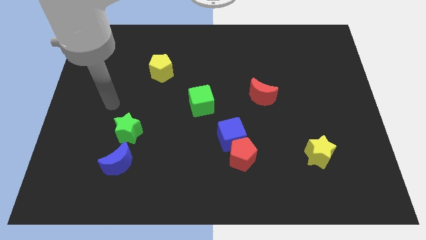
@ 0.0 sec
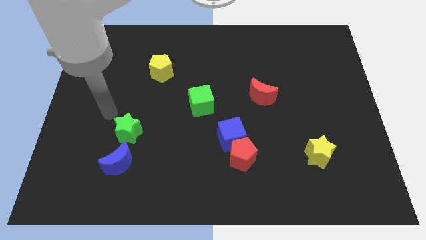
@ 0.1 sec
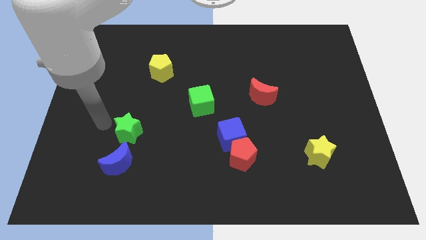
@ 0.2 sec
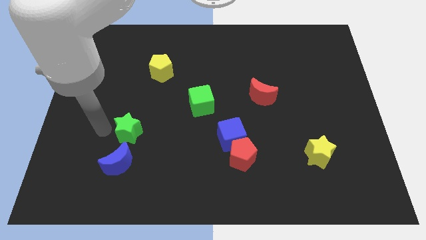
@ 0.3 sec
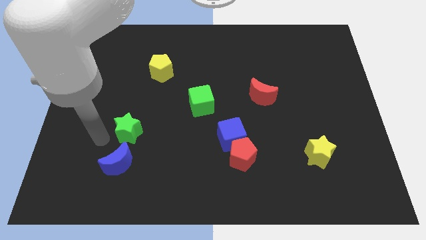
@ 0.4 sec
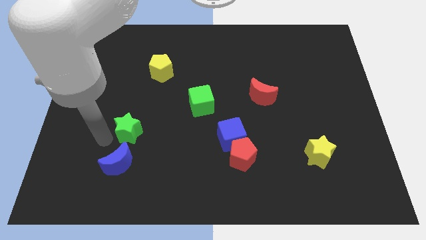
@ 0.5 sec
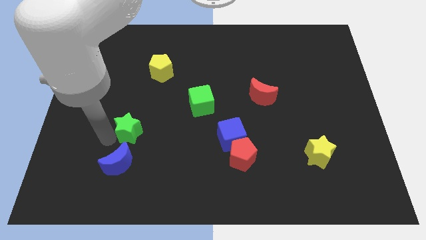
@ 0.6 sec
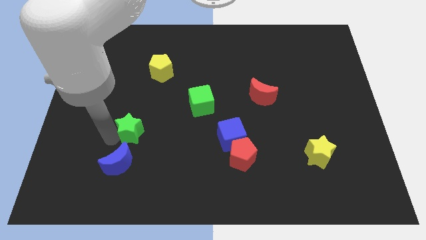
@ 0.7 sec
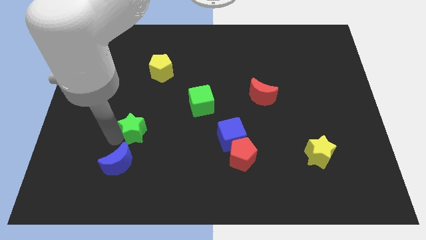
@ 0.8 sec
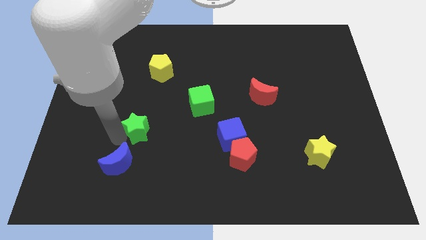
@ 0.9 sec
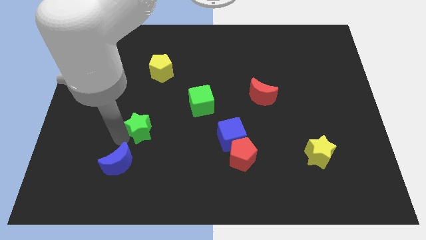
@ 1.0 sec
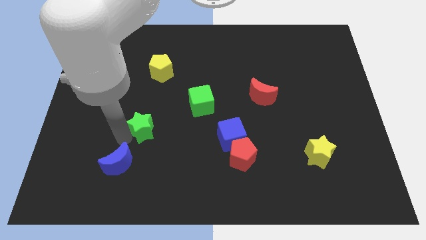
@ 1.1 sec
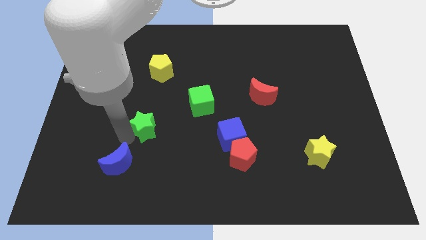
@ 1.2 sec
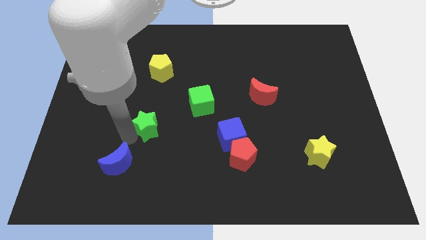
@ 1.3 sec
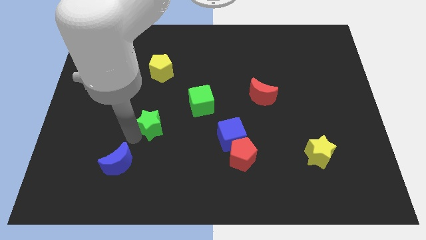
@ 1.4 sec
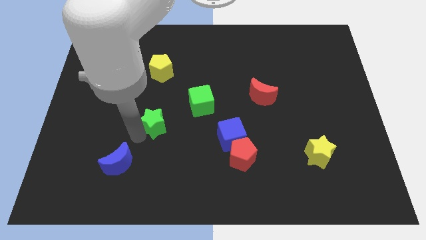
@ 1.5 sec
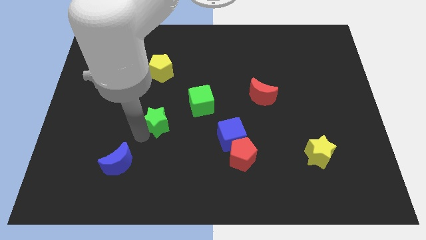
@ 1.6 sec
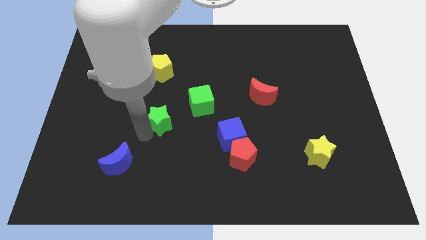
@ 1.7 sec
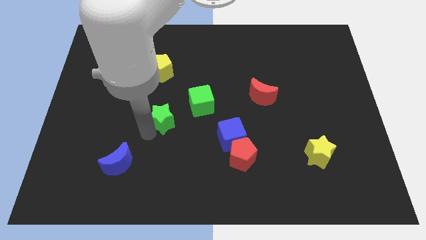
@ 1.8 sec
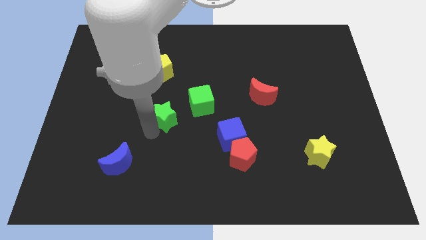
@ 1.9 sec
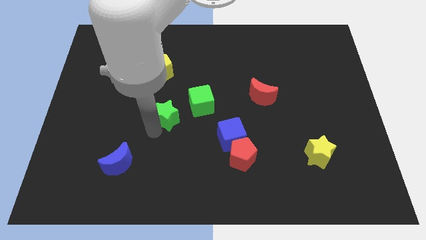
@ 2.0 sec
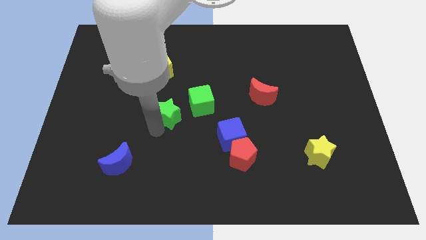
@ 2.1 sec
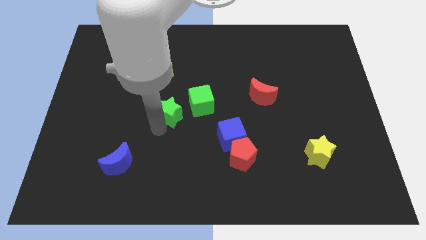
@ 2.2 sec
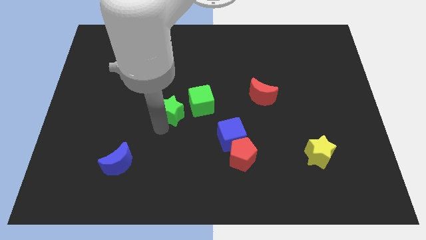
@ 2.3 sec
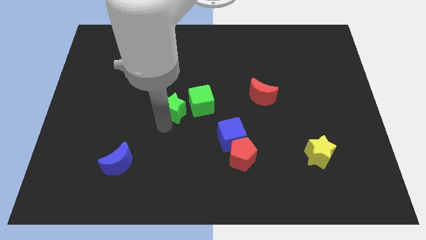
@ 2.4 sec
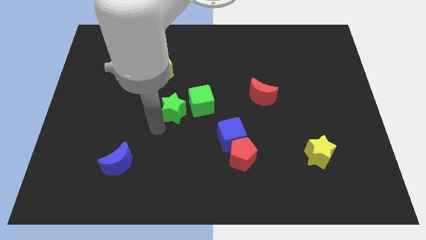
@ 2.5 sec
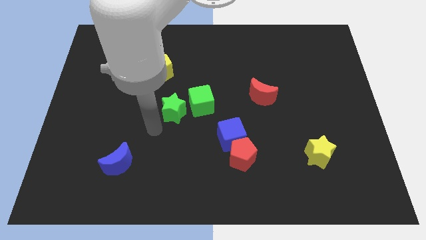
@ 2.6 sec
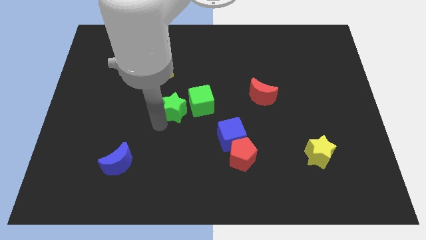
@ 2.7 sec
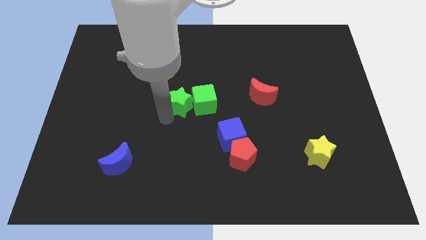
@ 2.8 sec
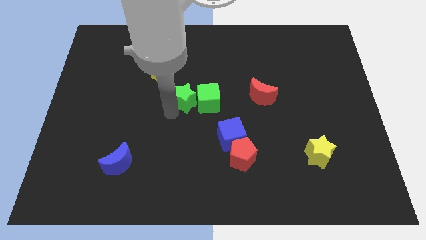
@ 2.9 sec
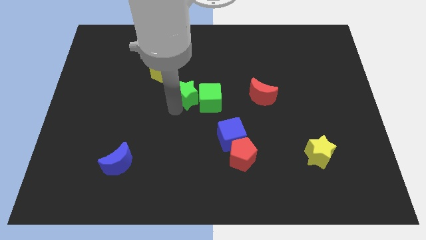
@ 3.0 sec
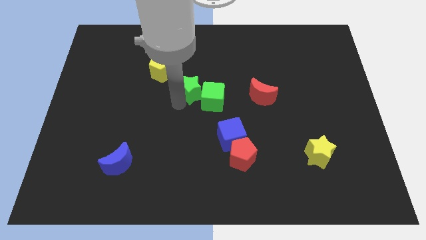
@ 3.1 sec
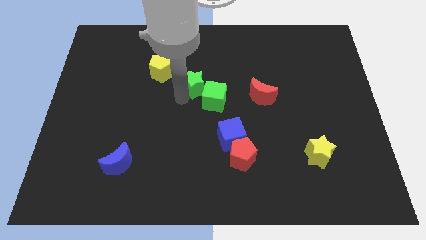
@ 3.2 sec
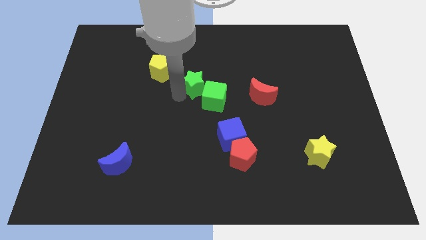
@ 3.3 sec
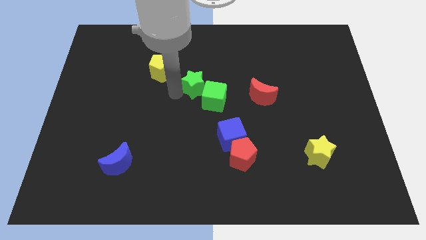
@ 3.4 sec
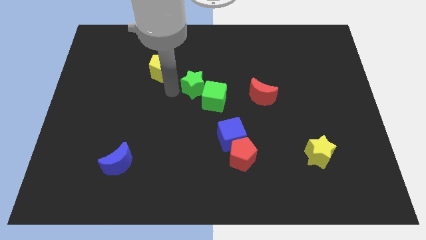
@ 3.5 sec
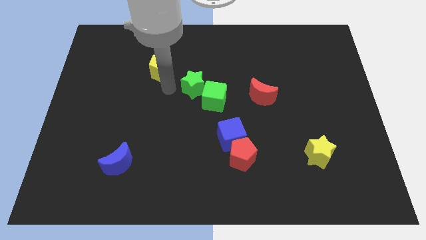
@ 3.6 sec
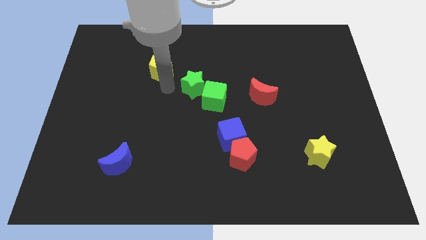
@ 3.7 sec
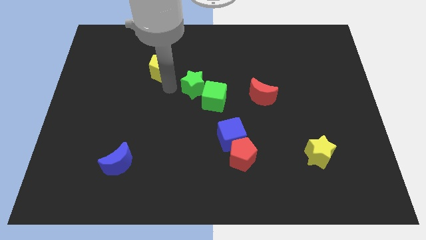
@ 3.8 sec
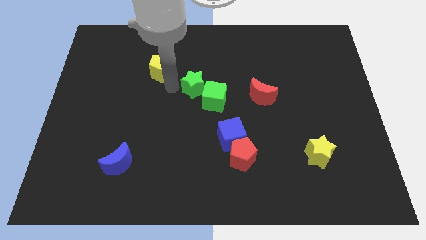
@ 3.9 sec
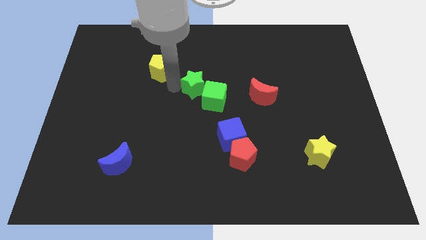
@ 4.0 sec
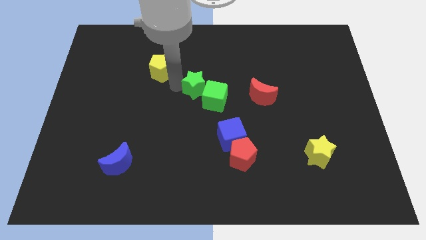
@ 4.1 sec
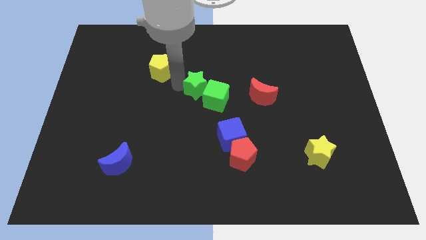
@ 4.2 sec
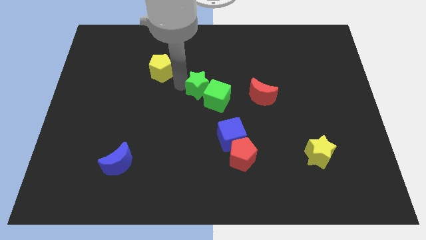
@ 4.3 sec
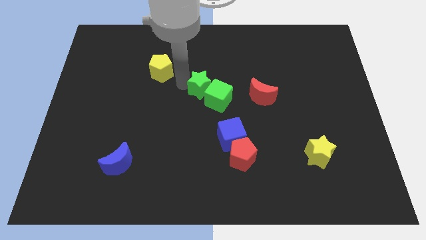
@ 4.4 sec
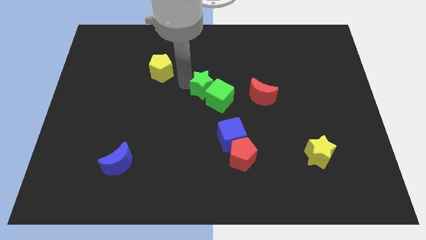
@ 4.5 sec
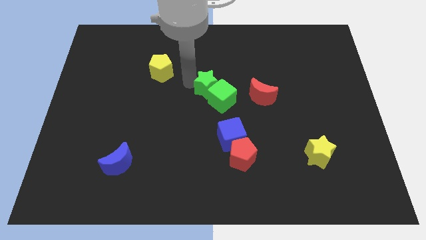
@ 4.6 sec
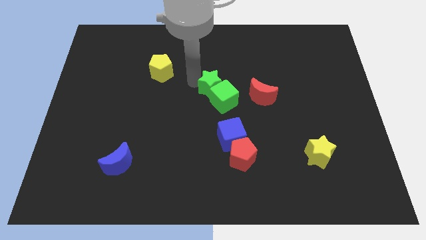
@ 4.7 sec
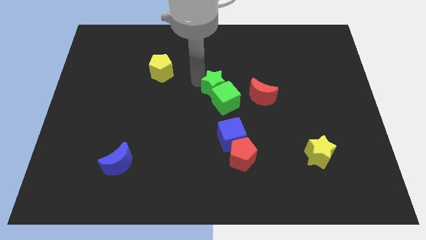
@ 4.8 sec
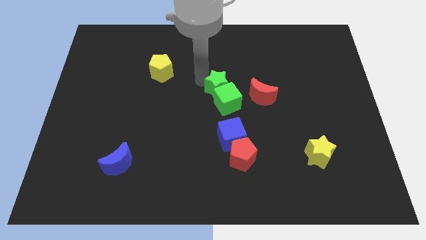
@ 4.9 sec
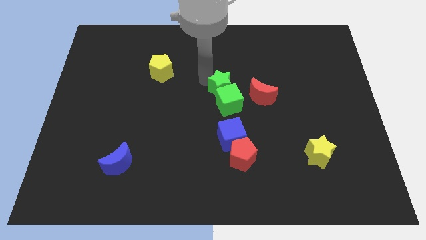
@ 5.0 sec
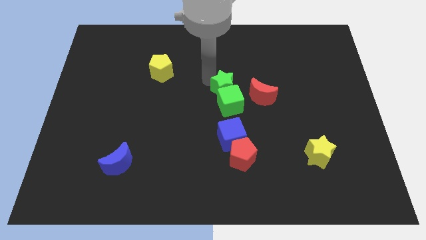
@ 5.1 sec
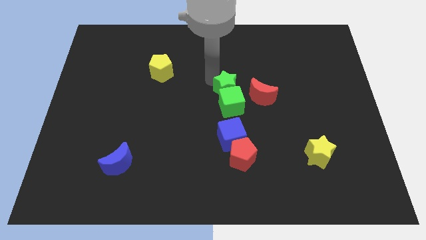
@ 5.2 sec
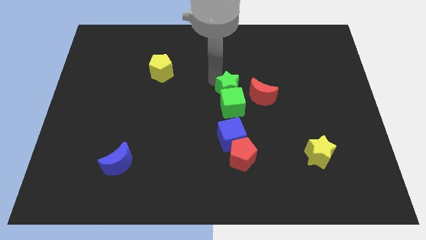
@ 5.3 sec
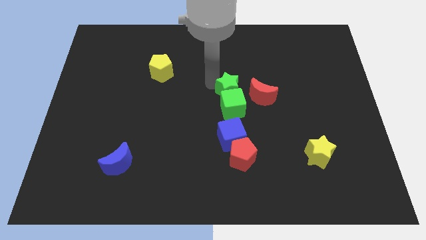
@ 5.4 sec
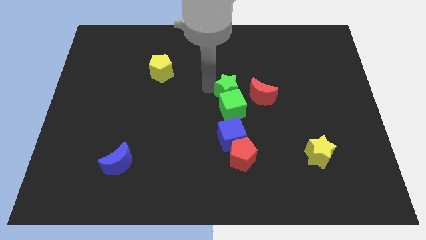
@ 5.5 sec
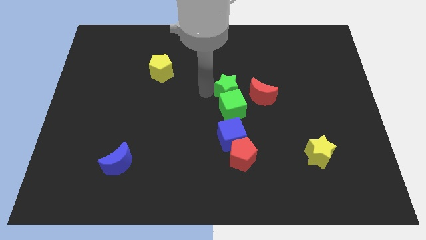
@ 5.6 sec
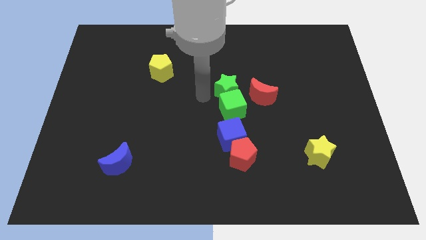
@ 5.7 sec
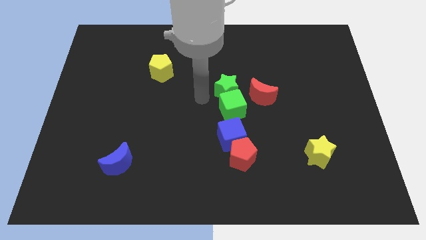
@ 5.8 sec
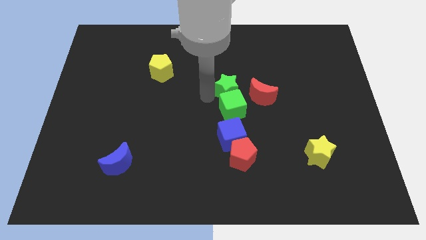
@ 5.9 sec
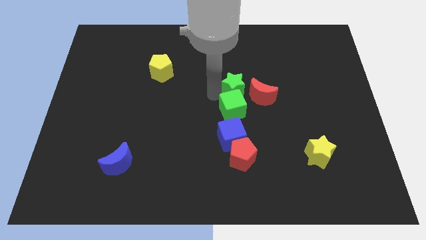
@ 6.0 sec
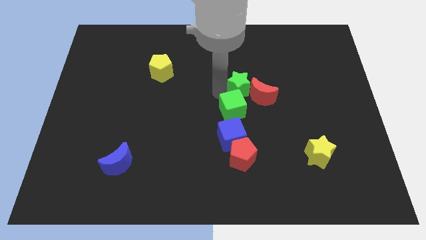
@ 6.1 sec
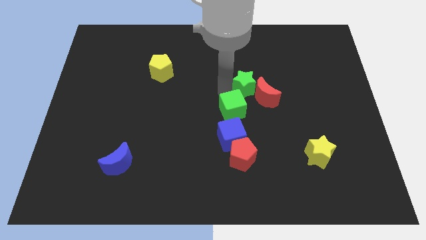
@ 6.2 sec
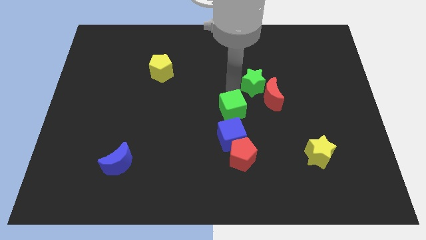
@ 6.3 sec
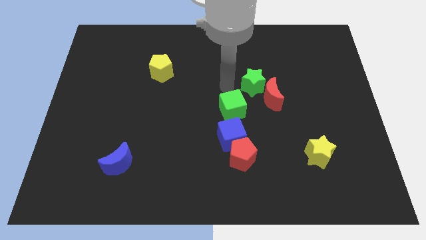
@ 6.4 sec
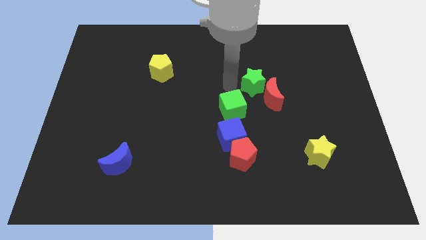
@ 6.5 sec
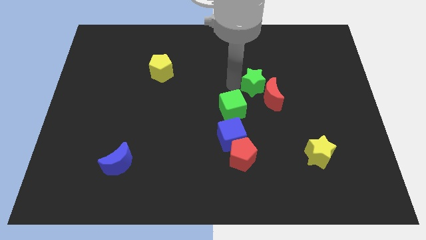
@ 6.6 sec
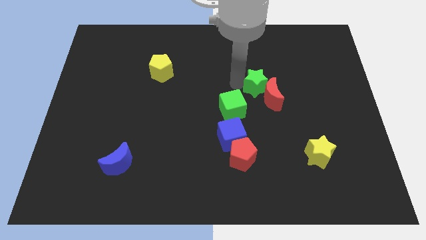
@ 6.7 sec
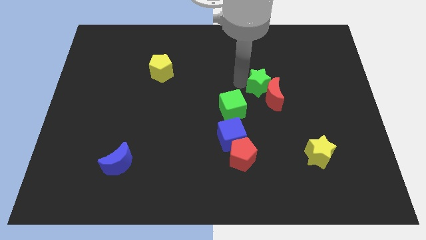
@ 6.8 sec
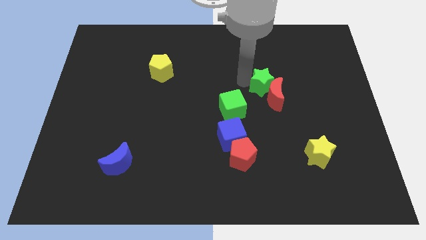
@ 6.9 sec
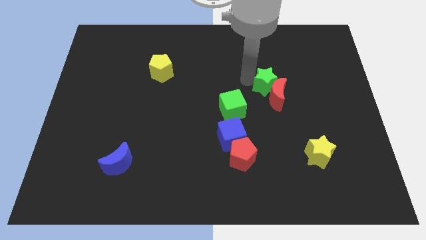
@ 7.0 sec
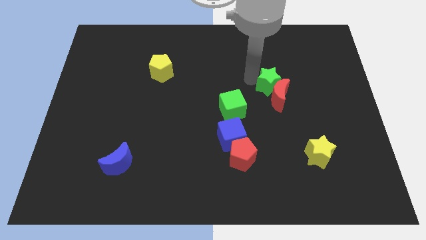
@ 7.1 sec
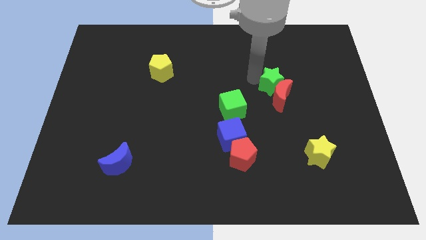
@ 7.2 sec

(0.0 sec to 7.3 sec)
push the green star to the top right of the red moon
